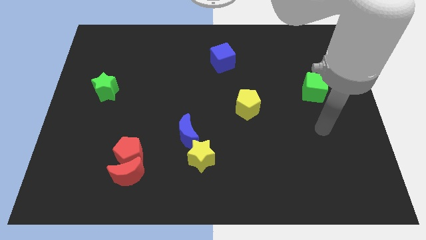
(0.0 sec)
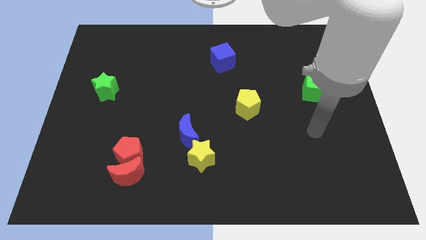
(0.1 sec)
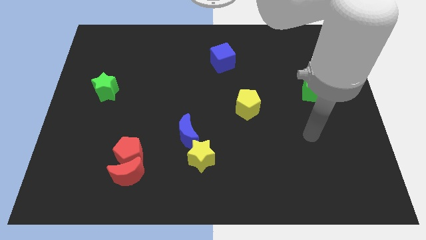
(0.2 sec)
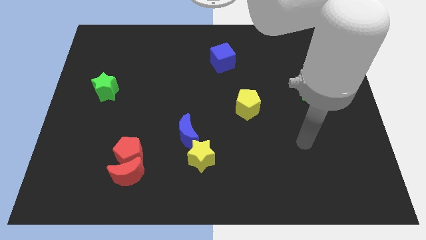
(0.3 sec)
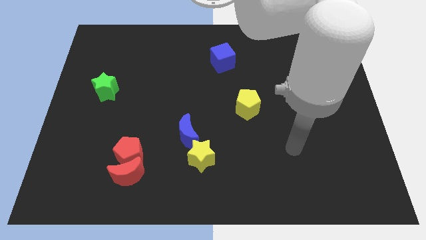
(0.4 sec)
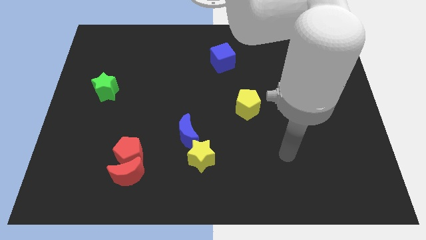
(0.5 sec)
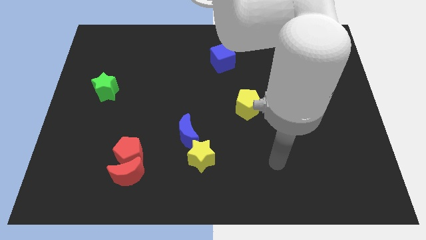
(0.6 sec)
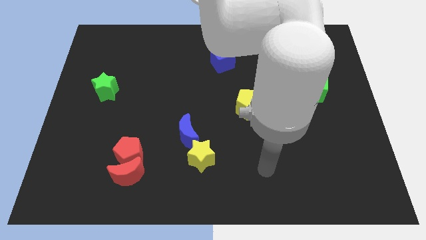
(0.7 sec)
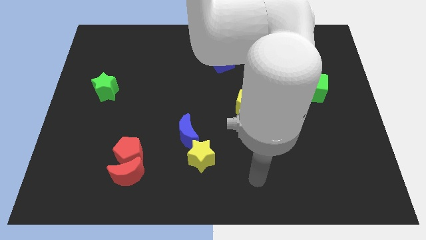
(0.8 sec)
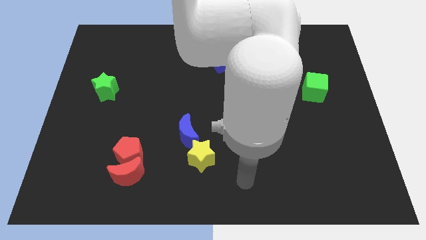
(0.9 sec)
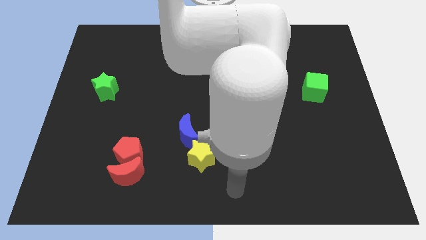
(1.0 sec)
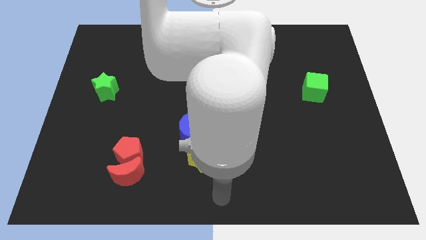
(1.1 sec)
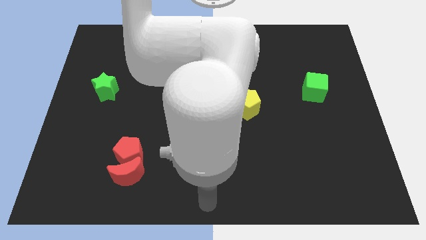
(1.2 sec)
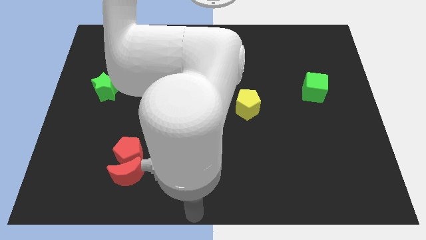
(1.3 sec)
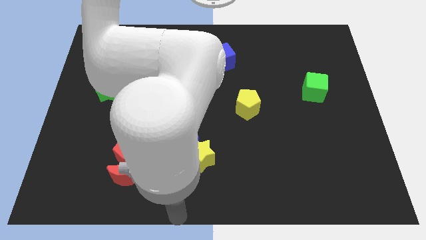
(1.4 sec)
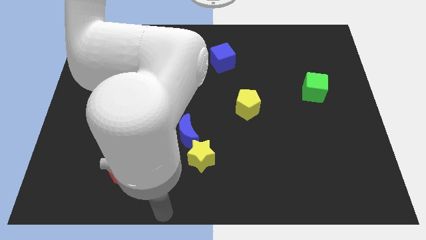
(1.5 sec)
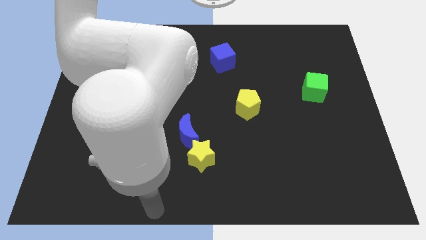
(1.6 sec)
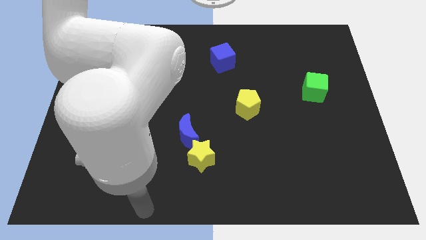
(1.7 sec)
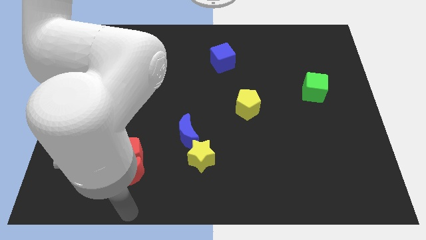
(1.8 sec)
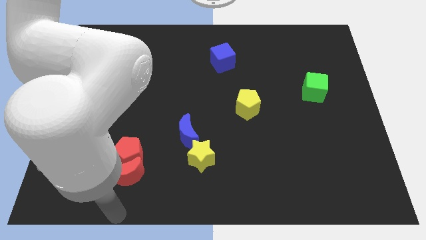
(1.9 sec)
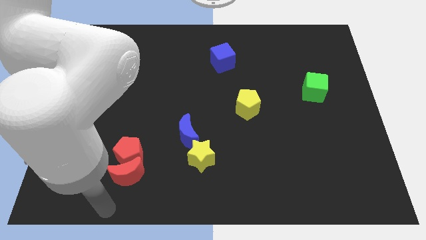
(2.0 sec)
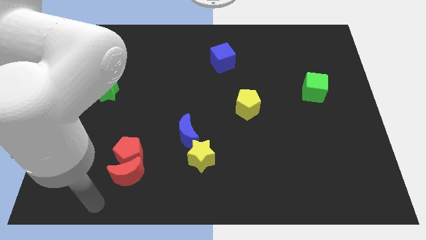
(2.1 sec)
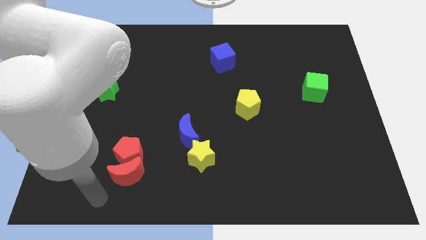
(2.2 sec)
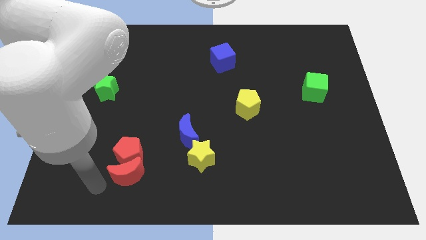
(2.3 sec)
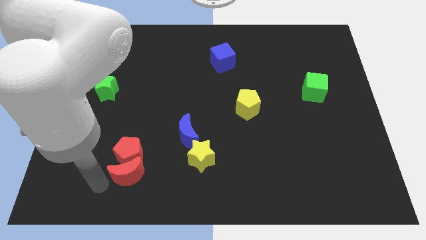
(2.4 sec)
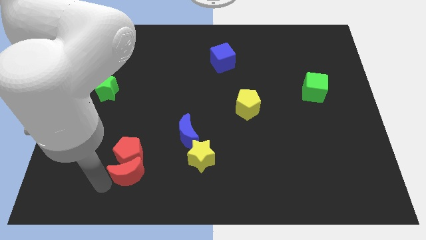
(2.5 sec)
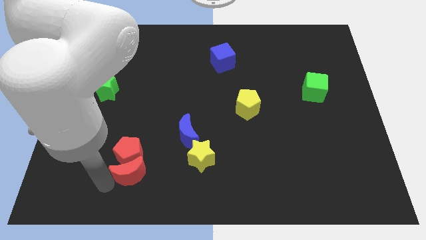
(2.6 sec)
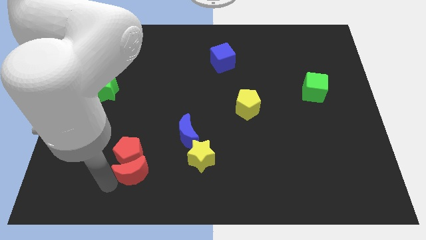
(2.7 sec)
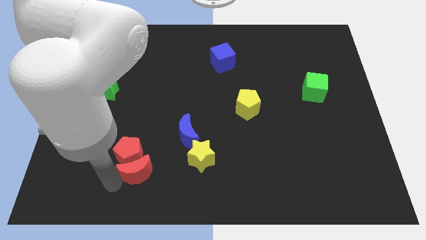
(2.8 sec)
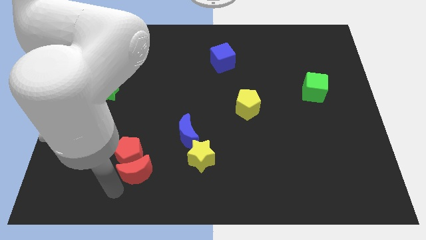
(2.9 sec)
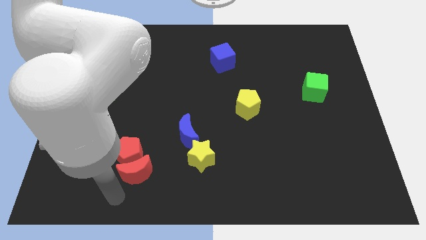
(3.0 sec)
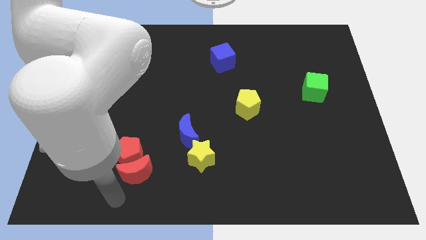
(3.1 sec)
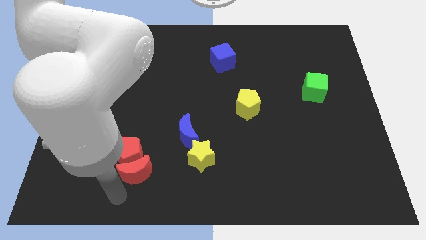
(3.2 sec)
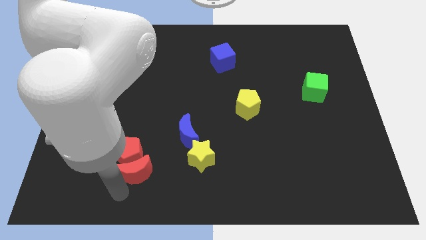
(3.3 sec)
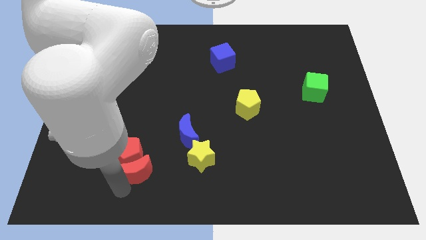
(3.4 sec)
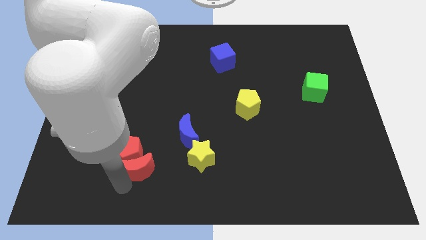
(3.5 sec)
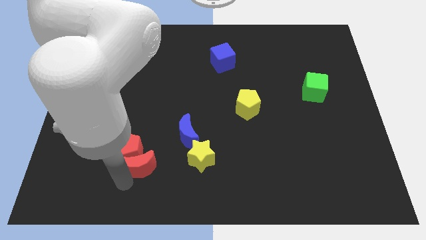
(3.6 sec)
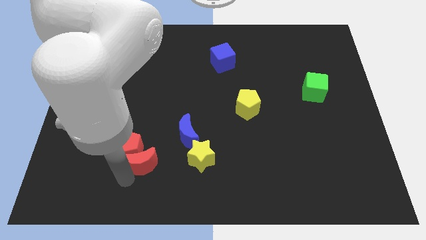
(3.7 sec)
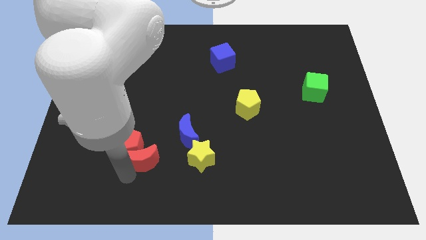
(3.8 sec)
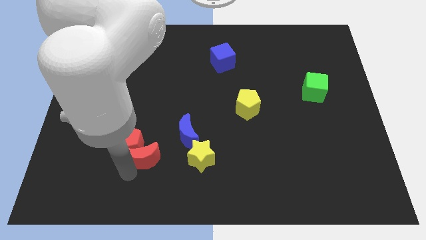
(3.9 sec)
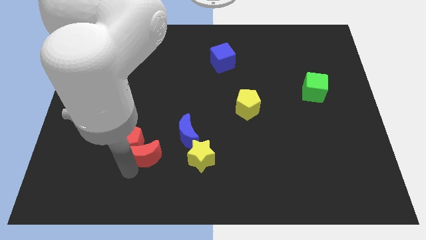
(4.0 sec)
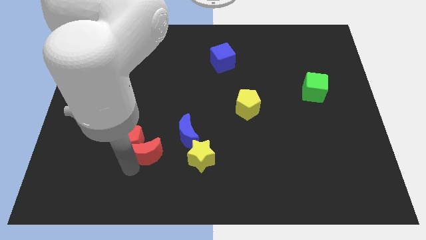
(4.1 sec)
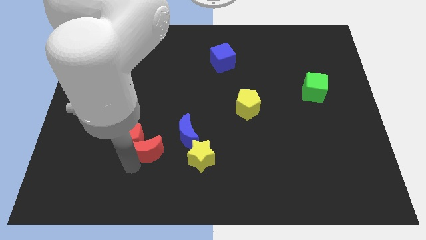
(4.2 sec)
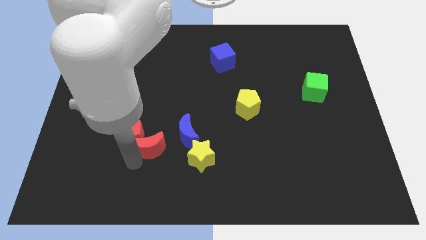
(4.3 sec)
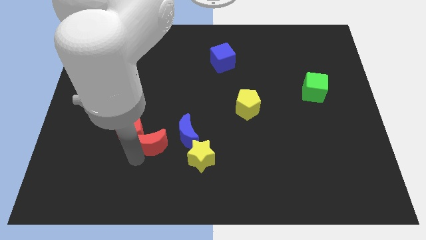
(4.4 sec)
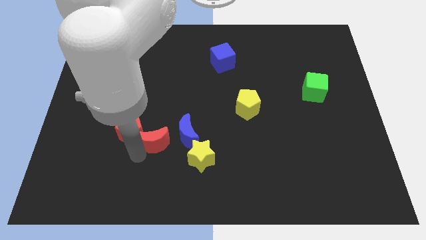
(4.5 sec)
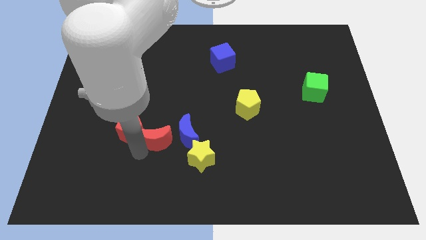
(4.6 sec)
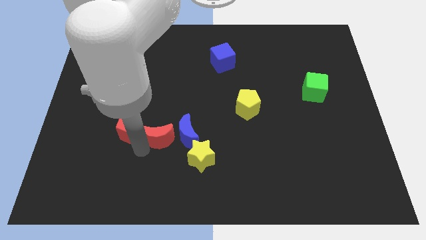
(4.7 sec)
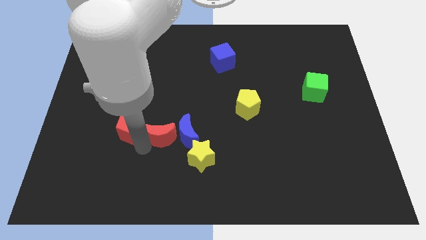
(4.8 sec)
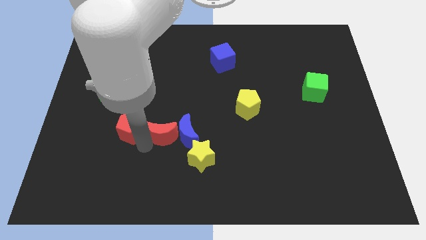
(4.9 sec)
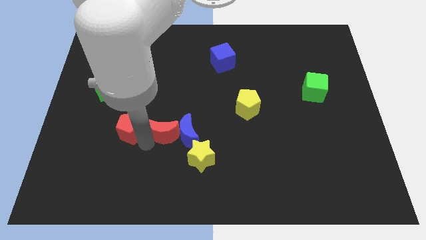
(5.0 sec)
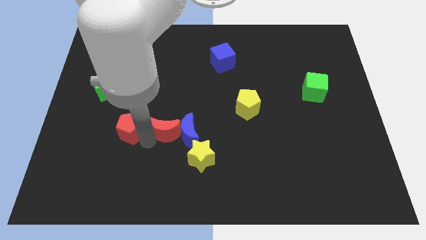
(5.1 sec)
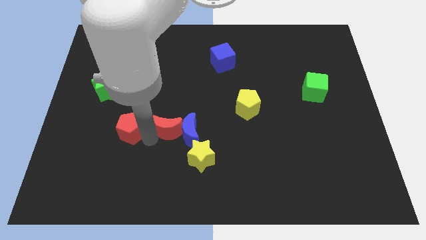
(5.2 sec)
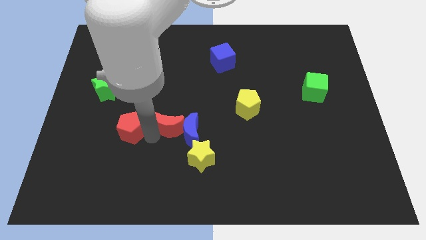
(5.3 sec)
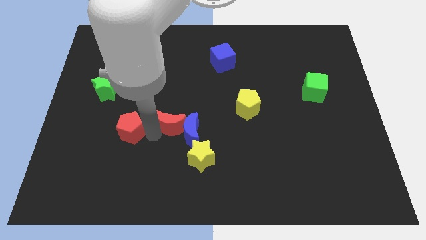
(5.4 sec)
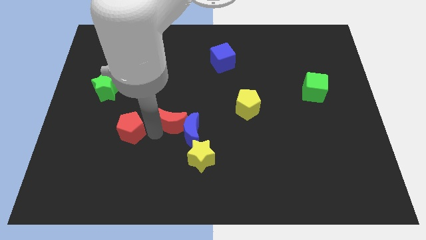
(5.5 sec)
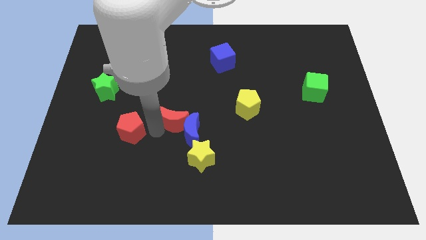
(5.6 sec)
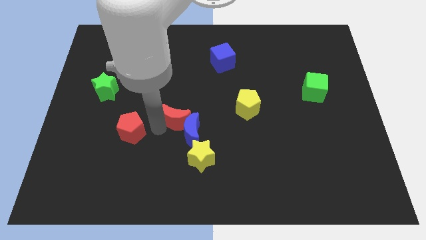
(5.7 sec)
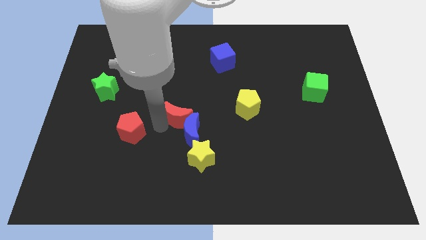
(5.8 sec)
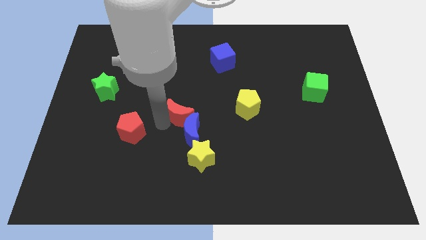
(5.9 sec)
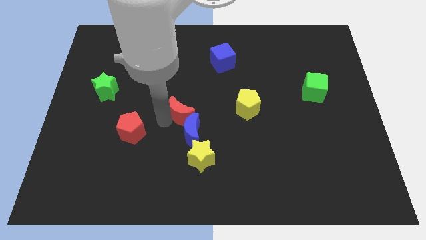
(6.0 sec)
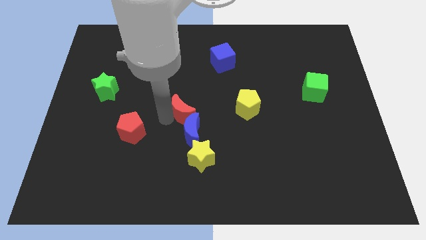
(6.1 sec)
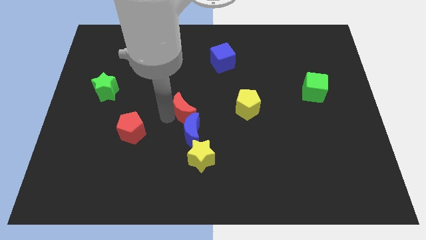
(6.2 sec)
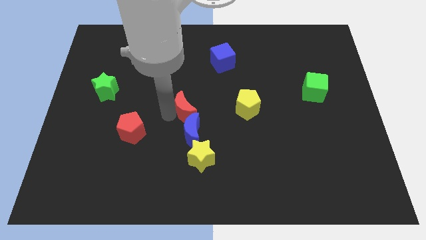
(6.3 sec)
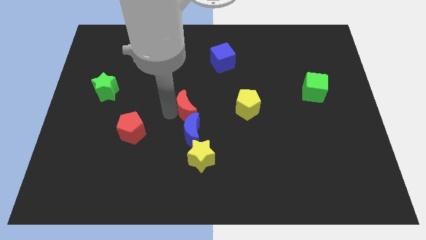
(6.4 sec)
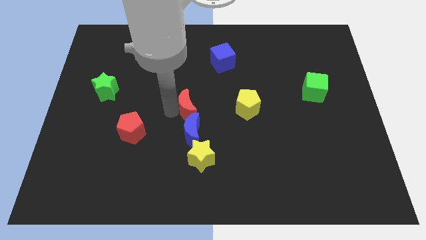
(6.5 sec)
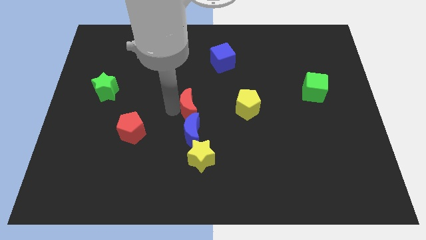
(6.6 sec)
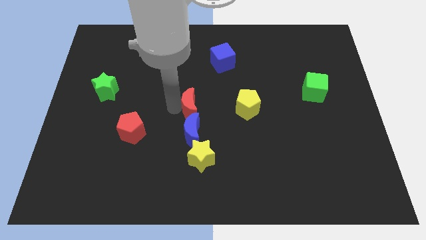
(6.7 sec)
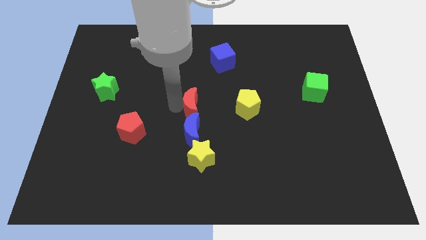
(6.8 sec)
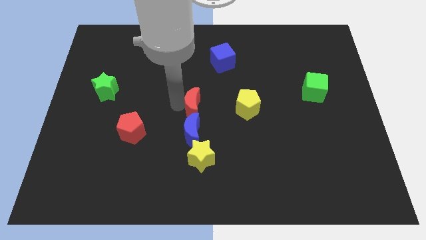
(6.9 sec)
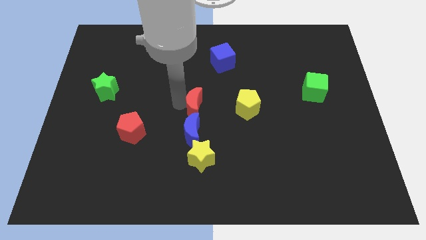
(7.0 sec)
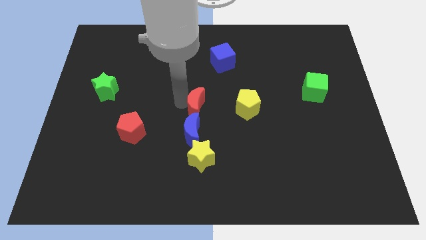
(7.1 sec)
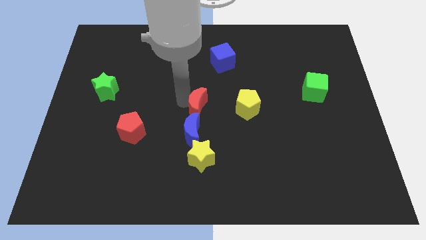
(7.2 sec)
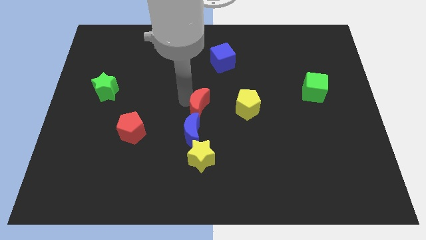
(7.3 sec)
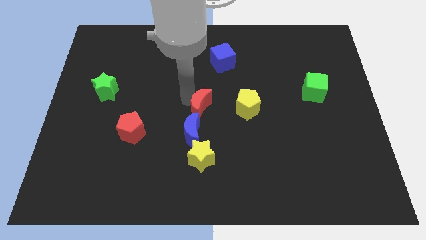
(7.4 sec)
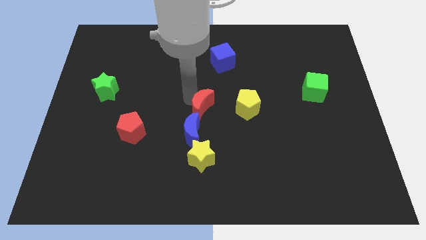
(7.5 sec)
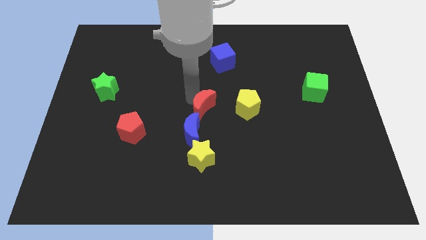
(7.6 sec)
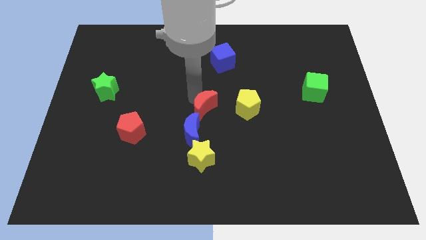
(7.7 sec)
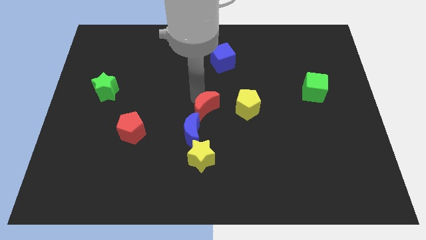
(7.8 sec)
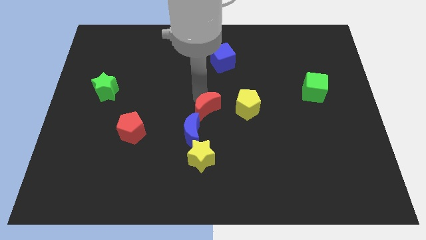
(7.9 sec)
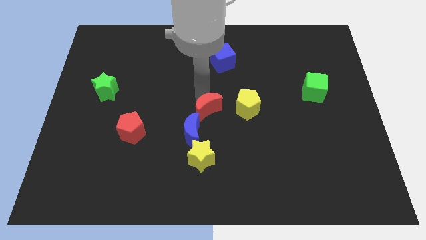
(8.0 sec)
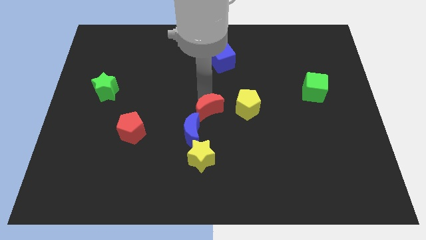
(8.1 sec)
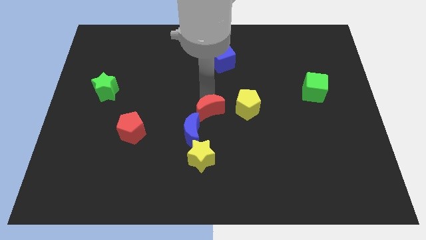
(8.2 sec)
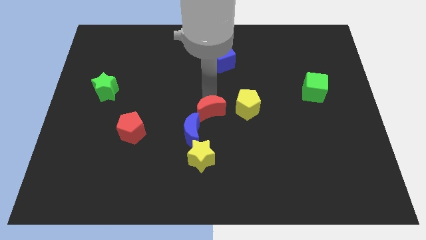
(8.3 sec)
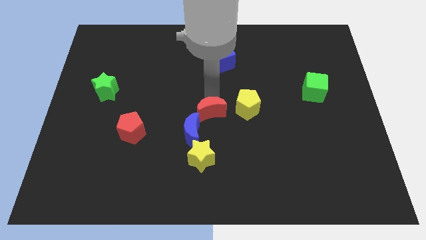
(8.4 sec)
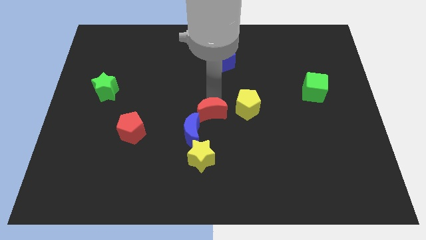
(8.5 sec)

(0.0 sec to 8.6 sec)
put the red moon to the bottom left side of the yellow pentagon
